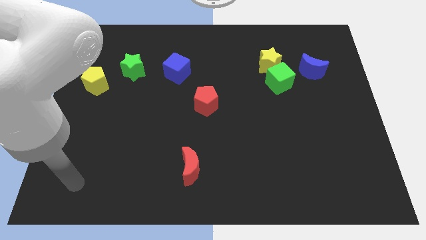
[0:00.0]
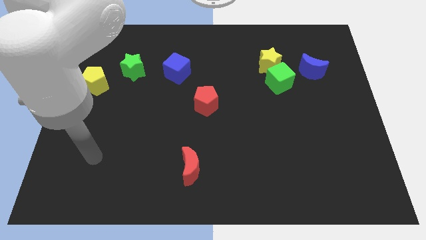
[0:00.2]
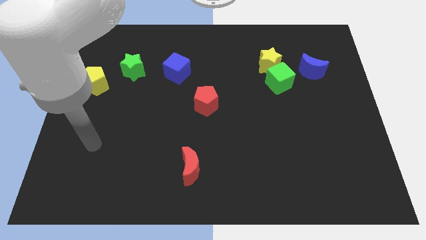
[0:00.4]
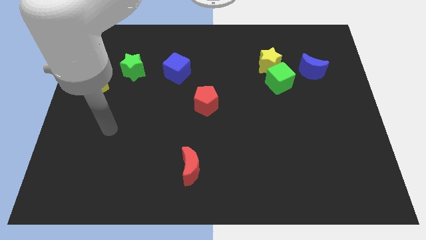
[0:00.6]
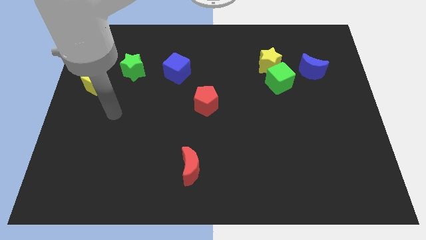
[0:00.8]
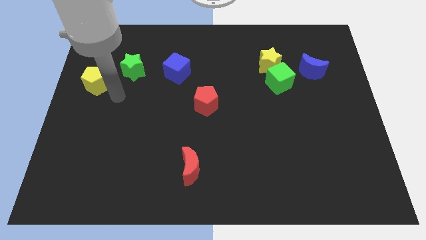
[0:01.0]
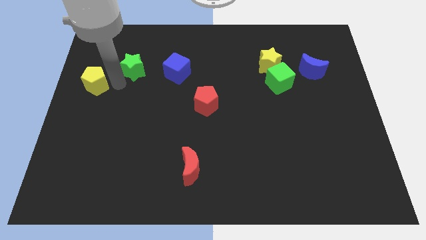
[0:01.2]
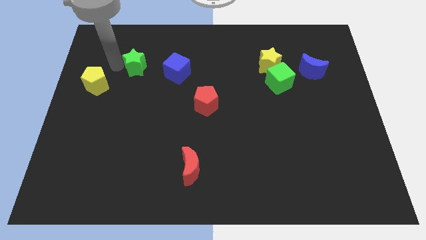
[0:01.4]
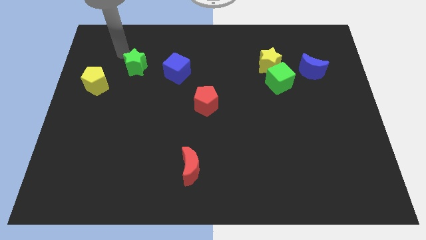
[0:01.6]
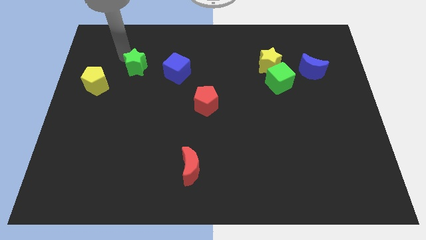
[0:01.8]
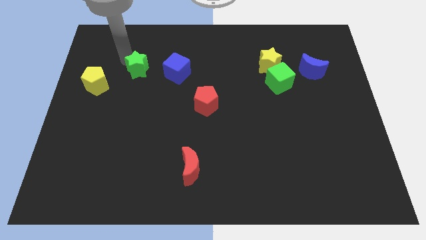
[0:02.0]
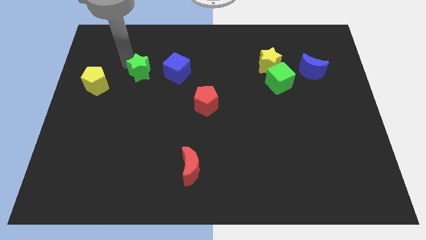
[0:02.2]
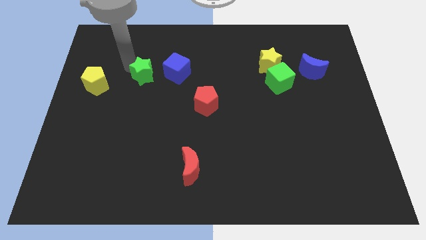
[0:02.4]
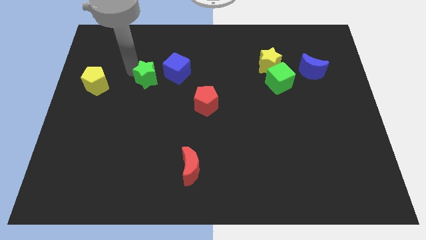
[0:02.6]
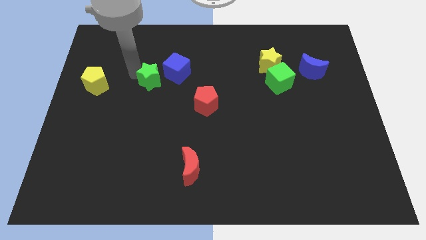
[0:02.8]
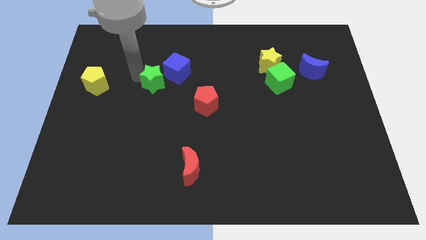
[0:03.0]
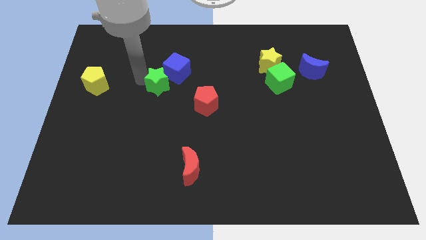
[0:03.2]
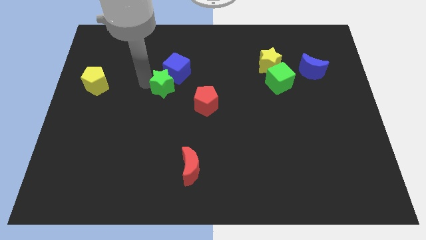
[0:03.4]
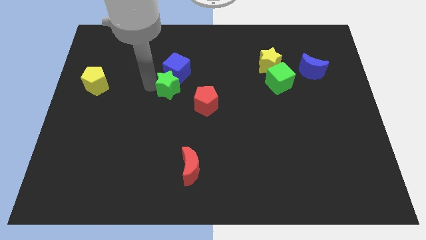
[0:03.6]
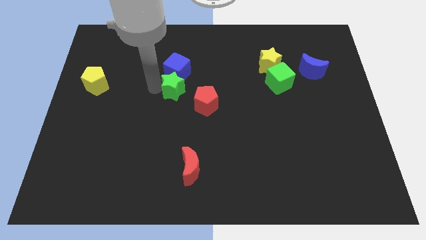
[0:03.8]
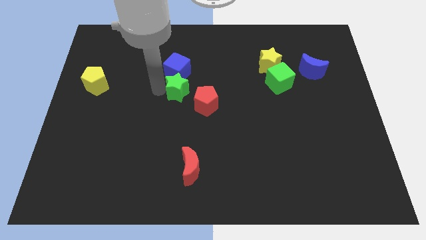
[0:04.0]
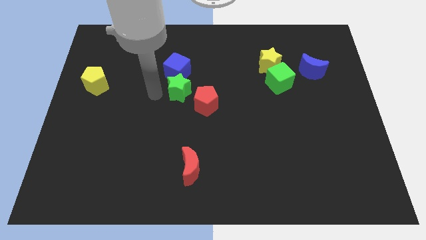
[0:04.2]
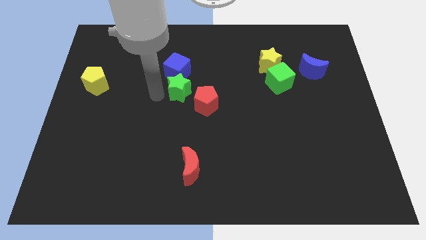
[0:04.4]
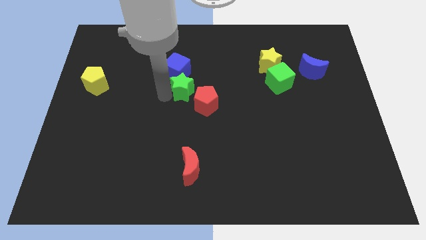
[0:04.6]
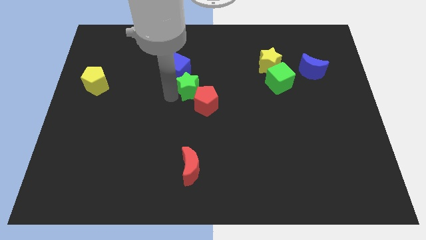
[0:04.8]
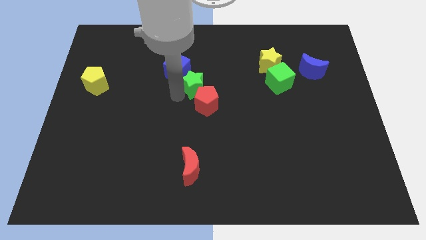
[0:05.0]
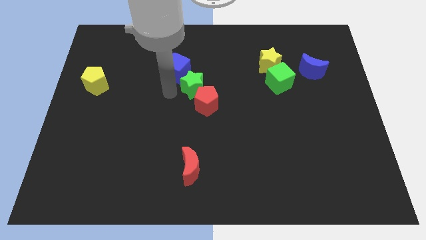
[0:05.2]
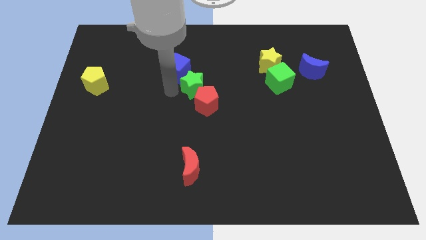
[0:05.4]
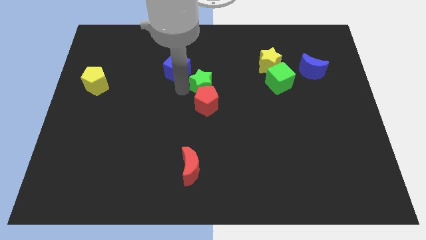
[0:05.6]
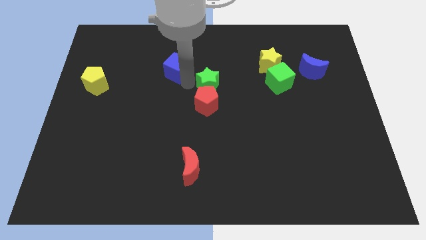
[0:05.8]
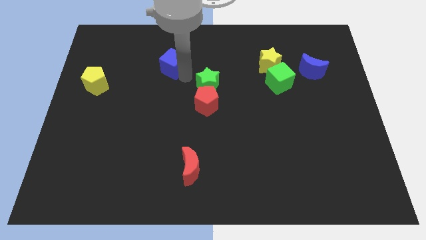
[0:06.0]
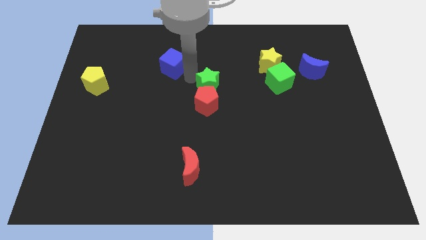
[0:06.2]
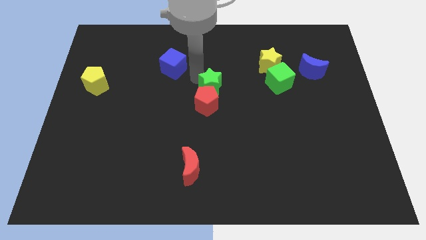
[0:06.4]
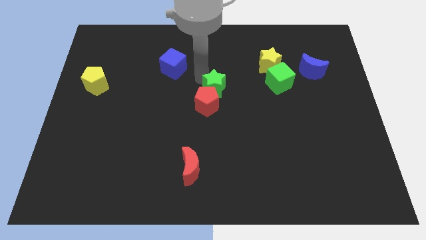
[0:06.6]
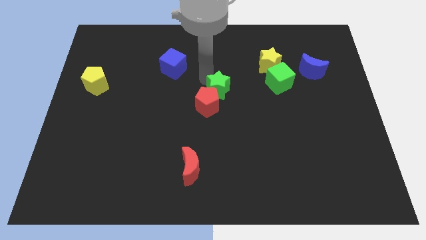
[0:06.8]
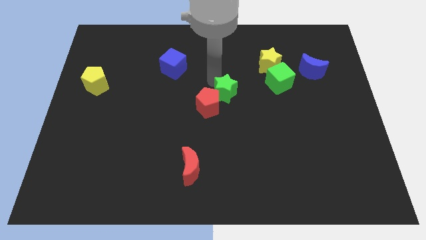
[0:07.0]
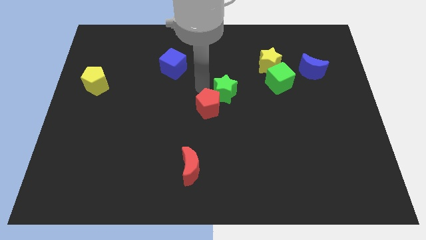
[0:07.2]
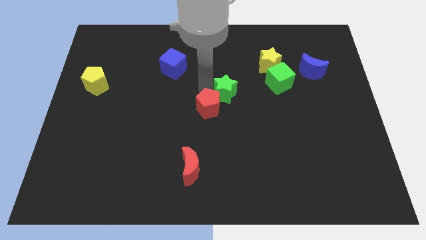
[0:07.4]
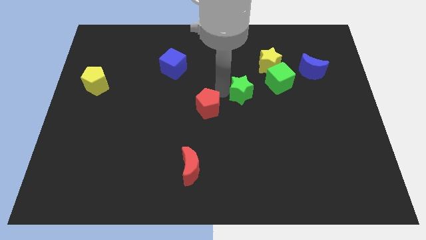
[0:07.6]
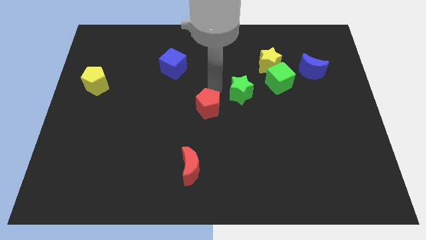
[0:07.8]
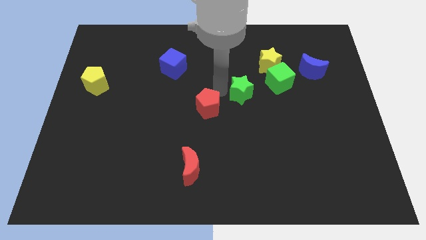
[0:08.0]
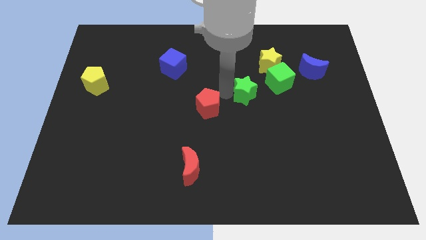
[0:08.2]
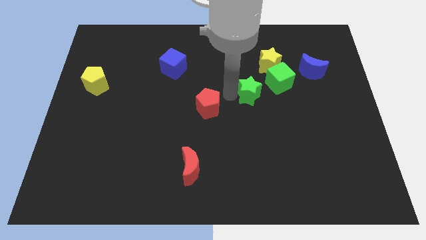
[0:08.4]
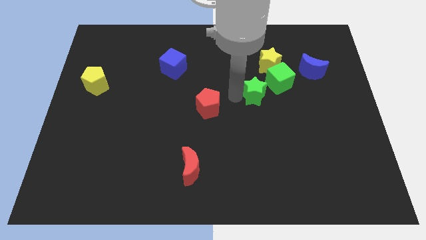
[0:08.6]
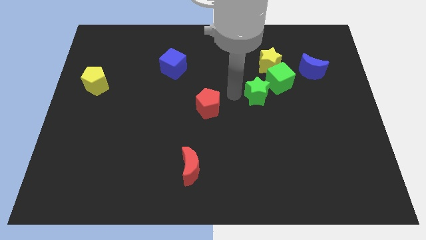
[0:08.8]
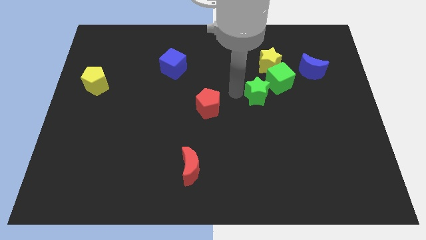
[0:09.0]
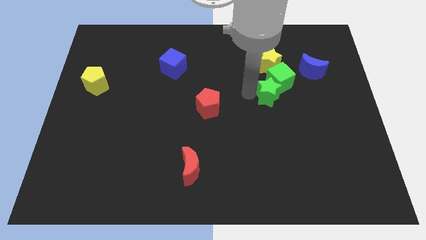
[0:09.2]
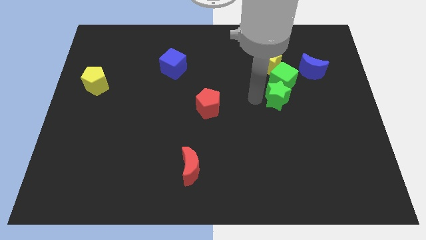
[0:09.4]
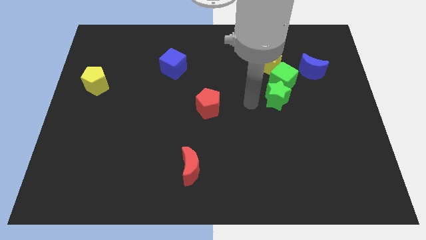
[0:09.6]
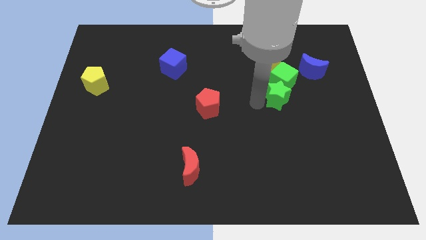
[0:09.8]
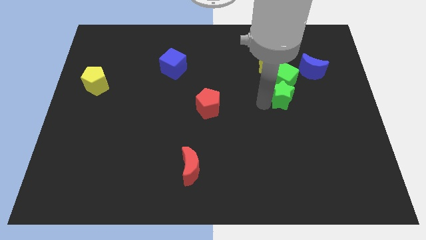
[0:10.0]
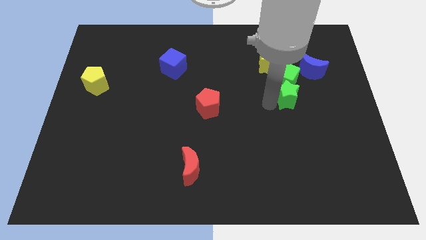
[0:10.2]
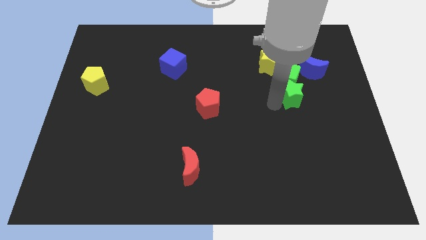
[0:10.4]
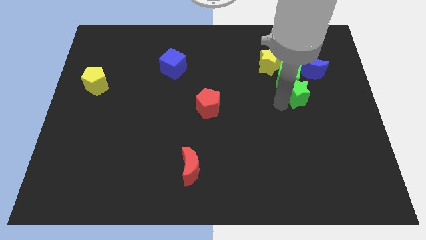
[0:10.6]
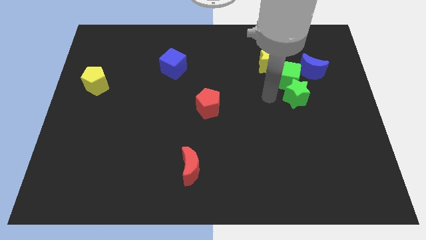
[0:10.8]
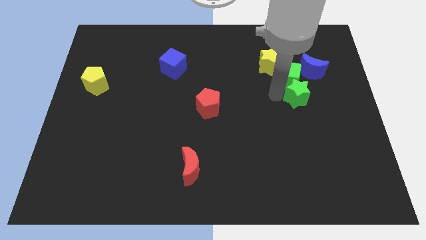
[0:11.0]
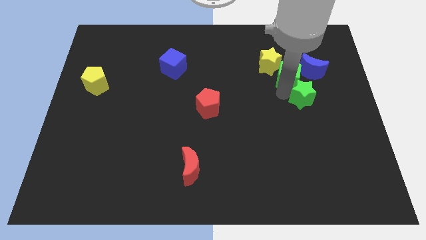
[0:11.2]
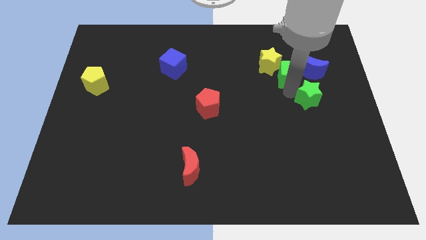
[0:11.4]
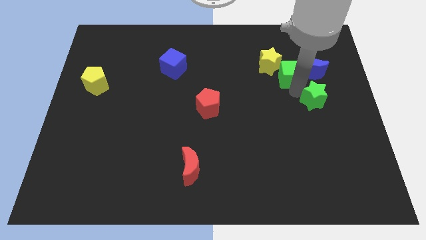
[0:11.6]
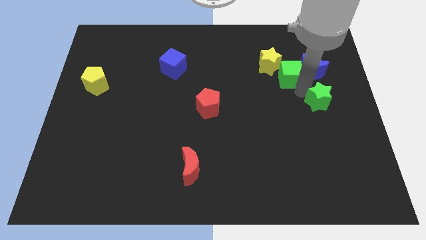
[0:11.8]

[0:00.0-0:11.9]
move the green star to the center right
